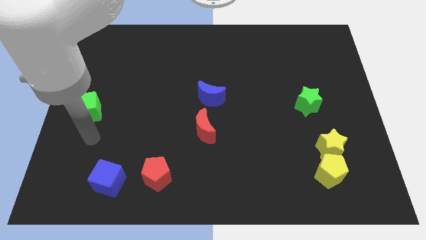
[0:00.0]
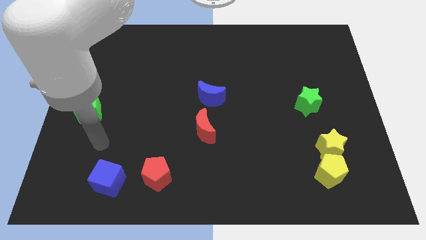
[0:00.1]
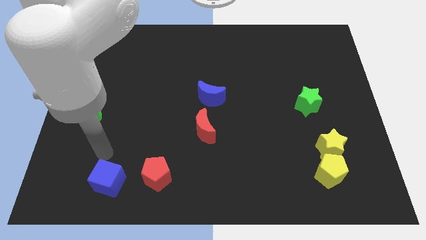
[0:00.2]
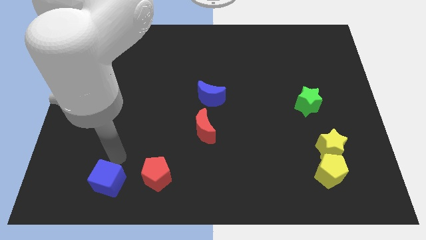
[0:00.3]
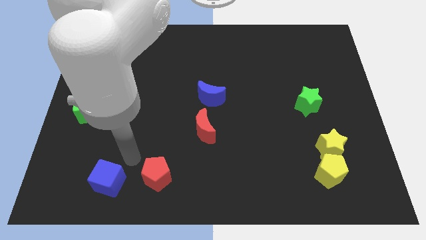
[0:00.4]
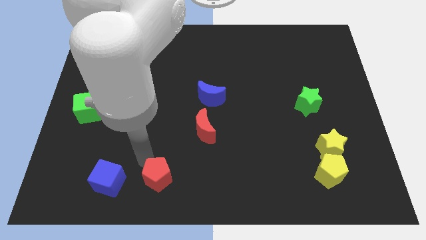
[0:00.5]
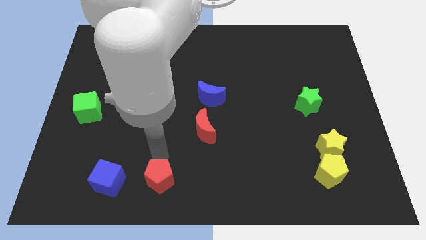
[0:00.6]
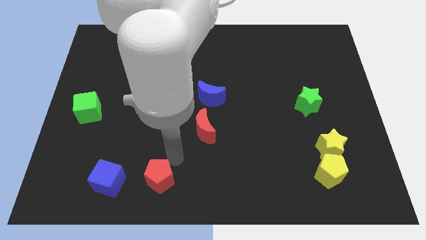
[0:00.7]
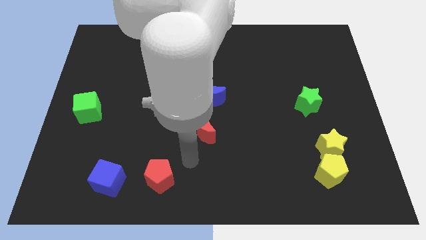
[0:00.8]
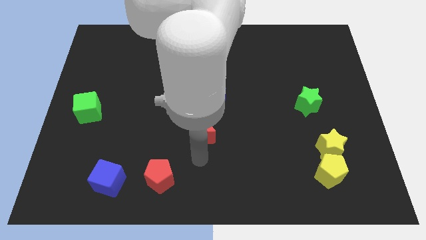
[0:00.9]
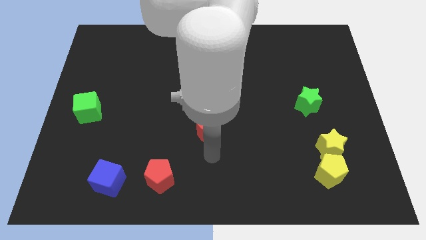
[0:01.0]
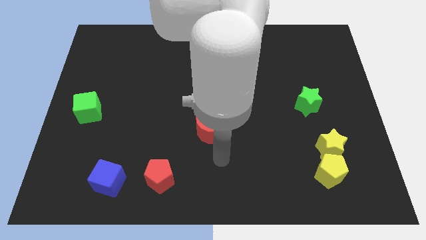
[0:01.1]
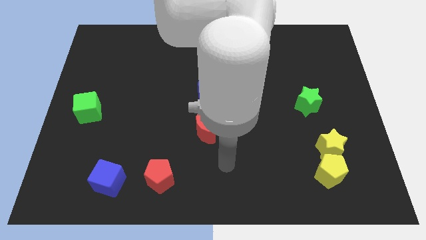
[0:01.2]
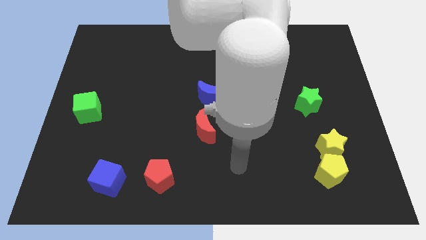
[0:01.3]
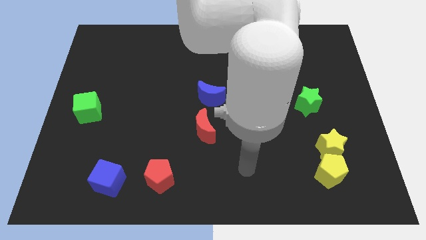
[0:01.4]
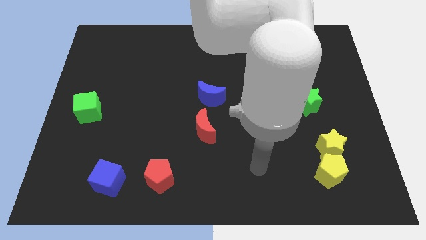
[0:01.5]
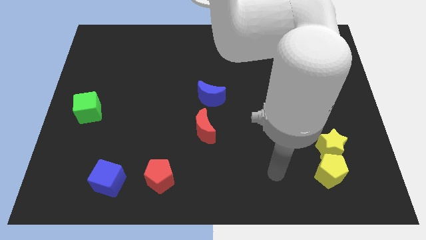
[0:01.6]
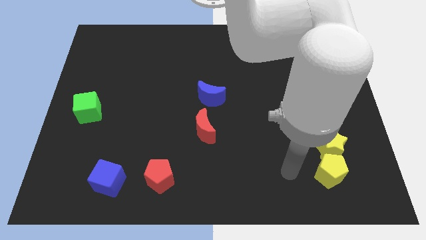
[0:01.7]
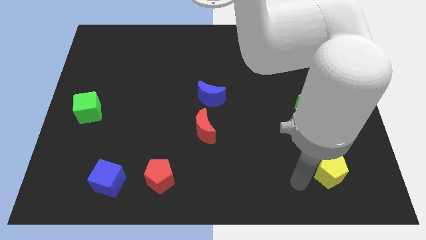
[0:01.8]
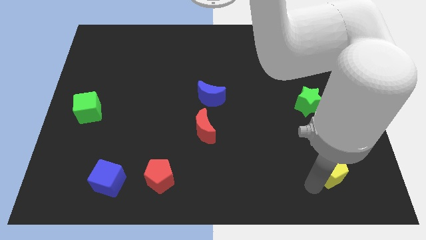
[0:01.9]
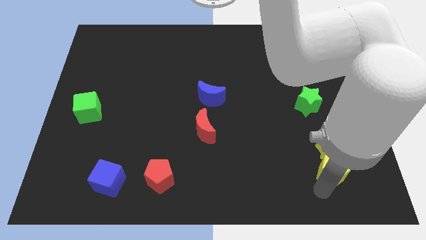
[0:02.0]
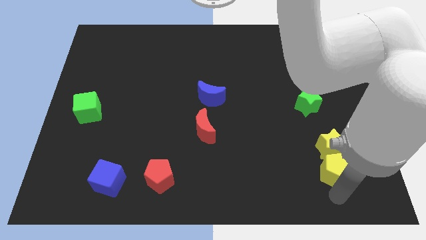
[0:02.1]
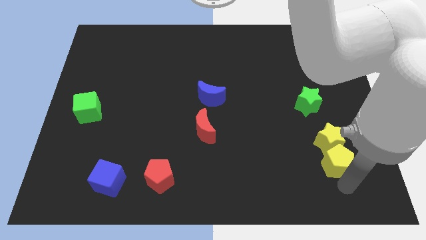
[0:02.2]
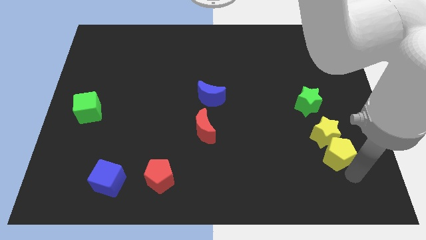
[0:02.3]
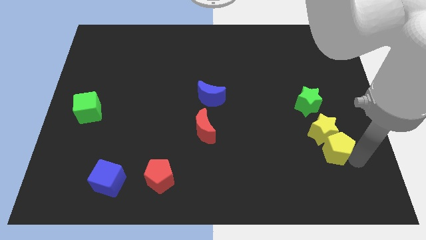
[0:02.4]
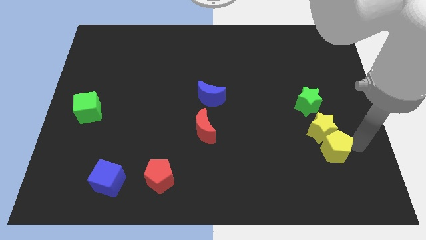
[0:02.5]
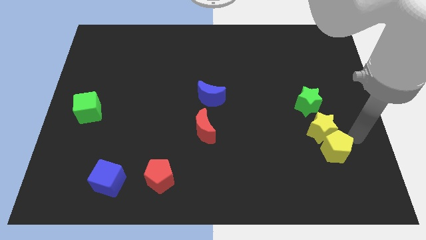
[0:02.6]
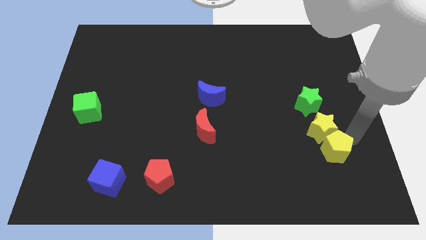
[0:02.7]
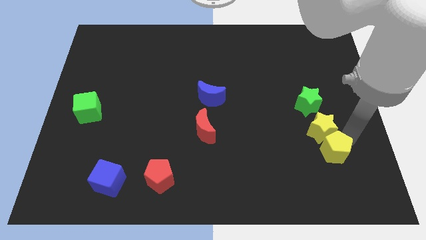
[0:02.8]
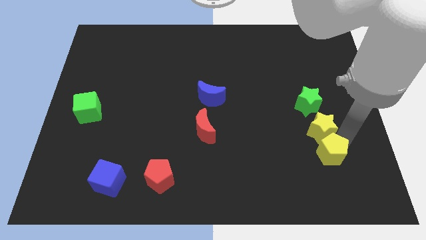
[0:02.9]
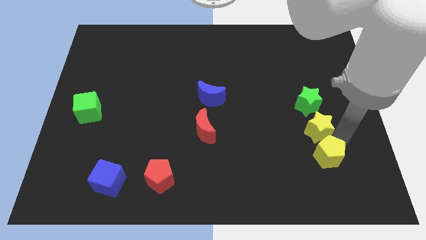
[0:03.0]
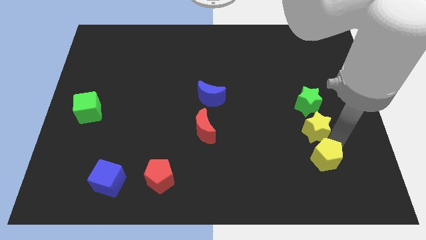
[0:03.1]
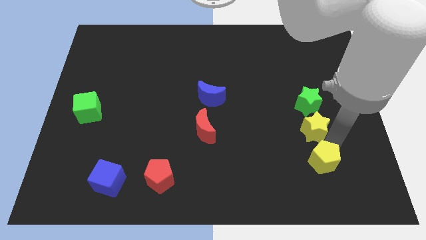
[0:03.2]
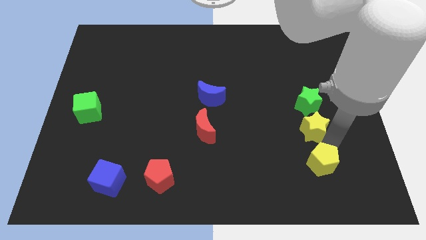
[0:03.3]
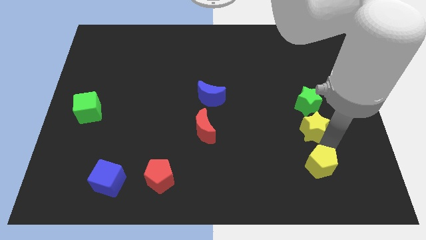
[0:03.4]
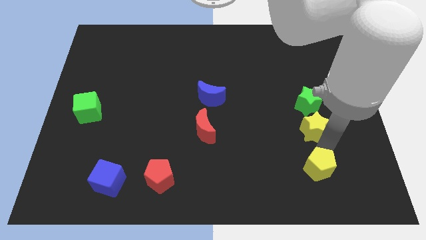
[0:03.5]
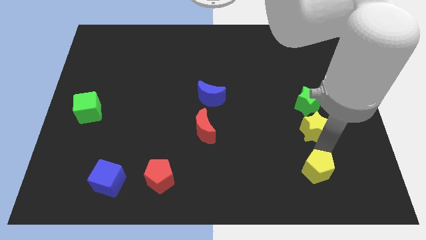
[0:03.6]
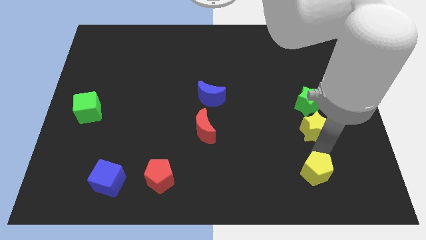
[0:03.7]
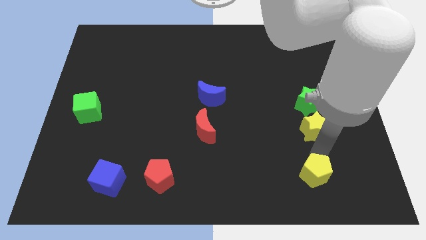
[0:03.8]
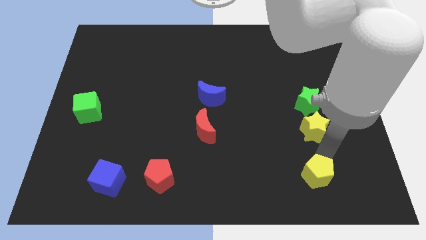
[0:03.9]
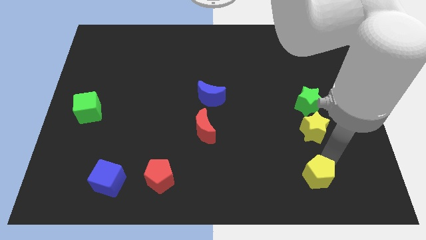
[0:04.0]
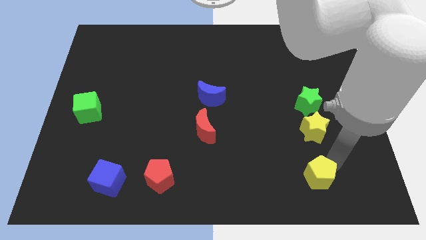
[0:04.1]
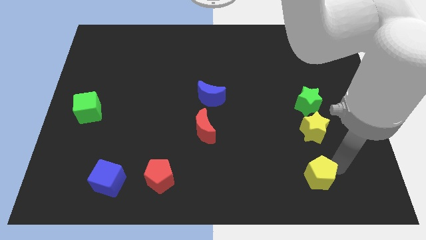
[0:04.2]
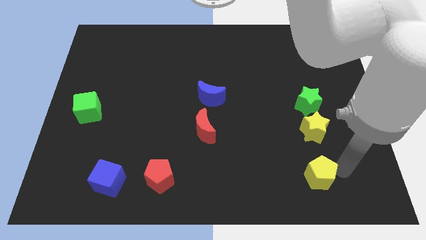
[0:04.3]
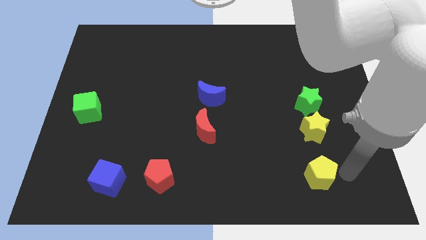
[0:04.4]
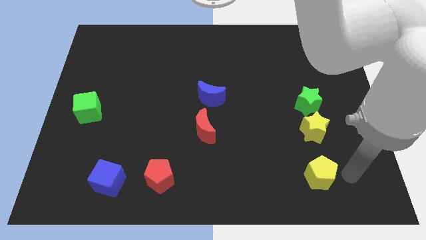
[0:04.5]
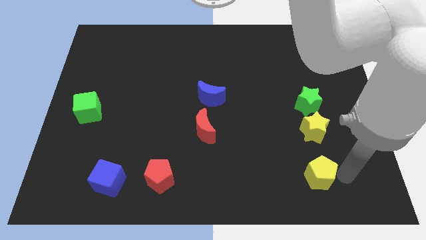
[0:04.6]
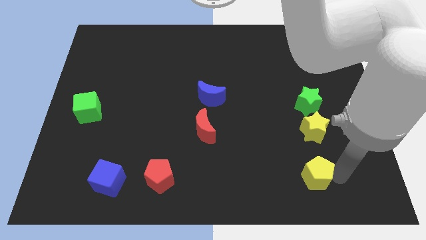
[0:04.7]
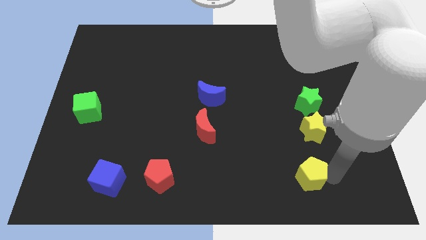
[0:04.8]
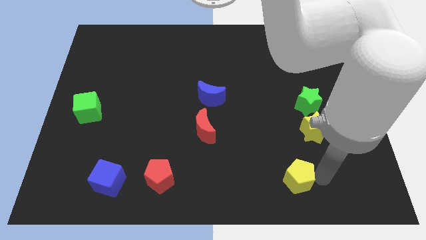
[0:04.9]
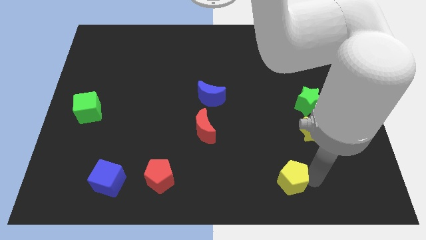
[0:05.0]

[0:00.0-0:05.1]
slightly move the yellow pentagon left

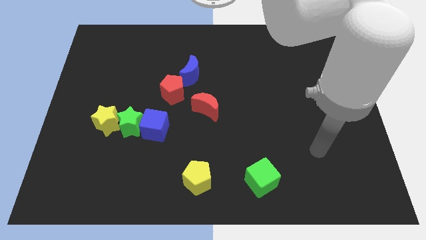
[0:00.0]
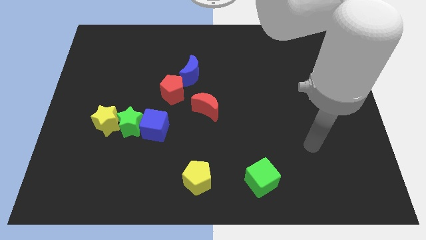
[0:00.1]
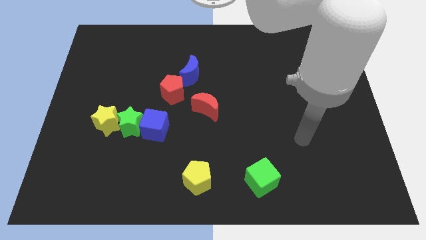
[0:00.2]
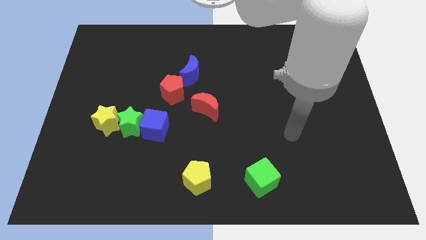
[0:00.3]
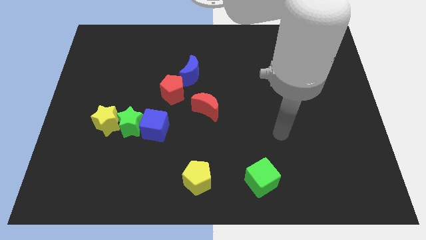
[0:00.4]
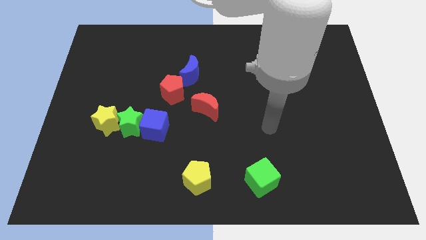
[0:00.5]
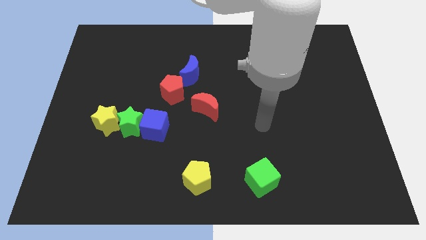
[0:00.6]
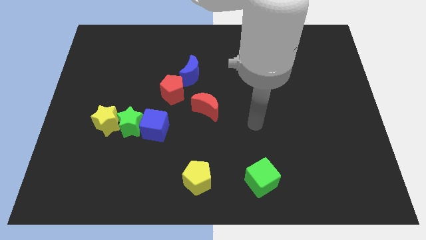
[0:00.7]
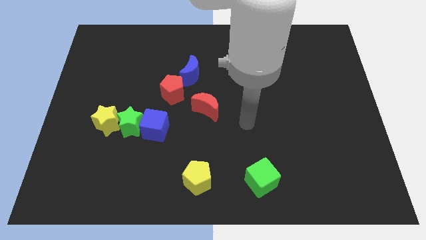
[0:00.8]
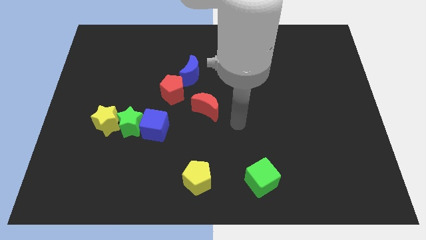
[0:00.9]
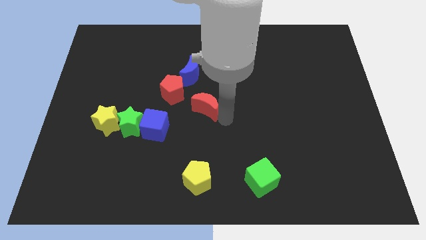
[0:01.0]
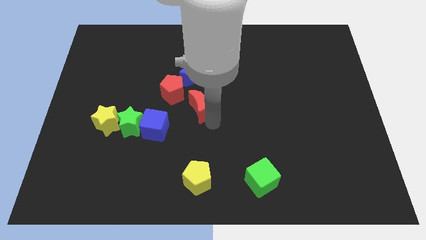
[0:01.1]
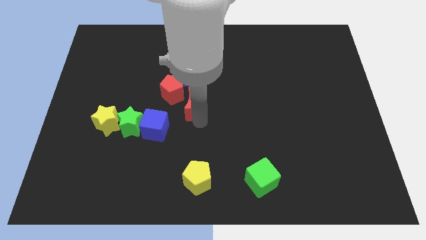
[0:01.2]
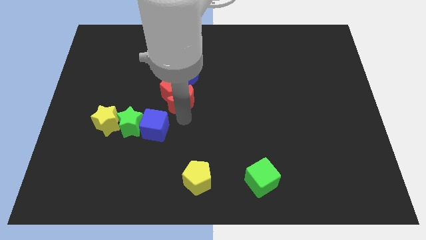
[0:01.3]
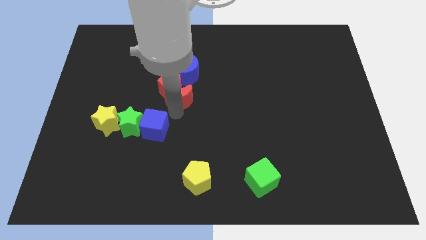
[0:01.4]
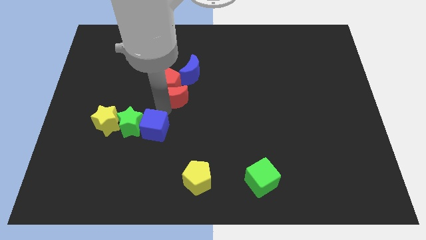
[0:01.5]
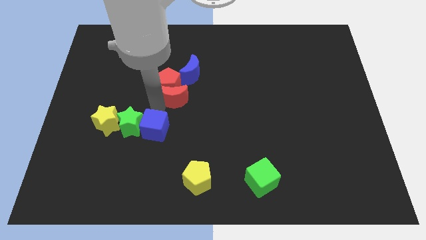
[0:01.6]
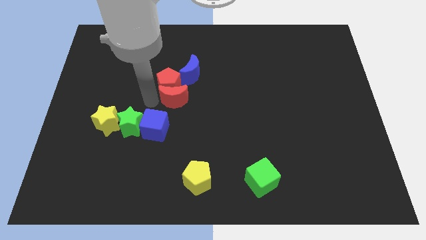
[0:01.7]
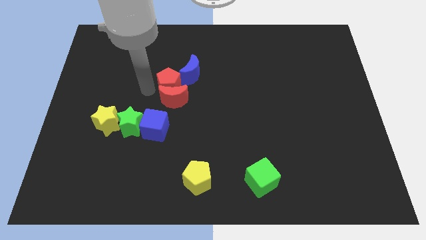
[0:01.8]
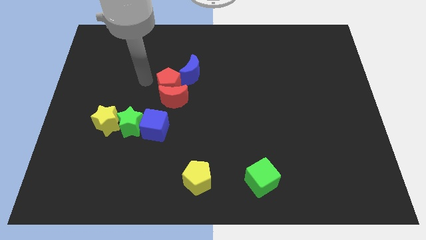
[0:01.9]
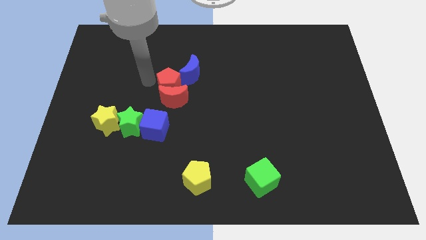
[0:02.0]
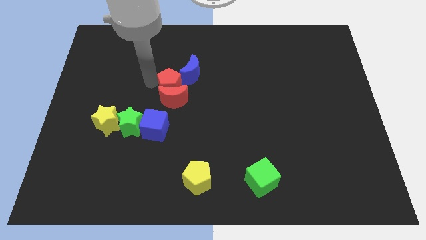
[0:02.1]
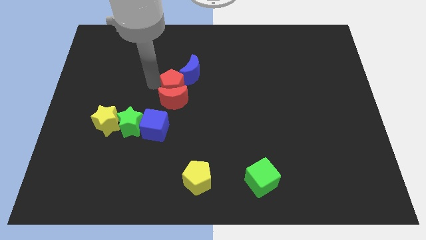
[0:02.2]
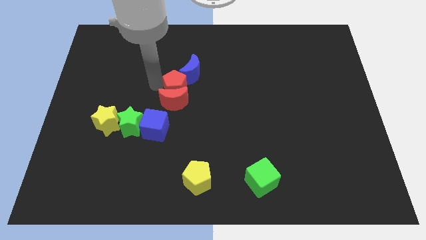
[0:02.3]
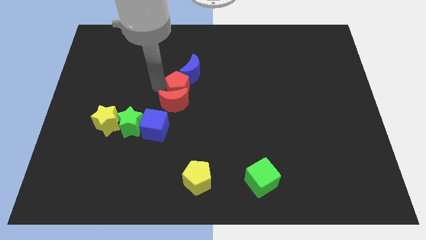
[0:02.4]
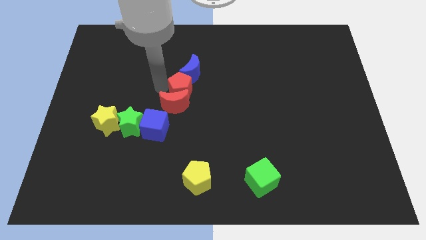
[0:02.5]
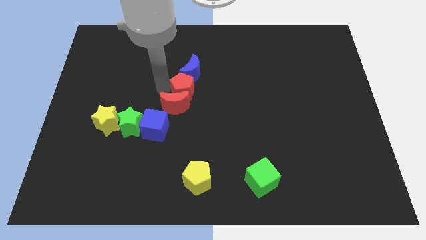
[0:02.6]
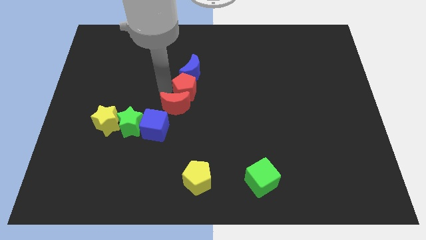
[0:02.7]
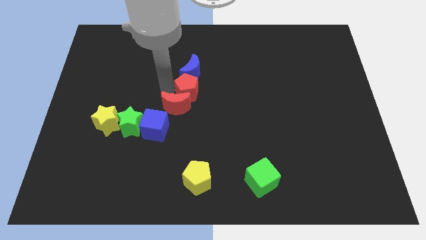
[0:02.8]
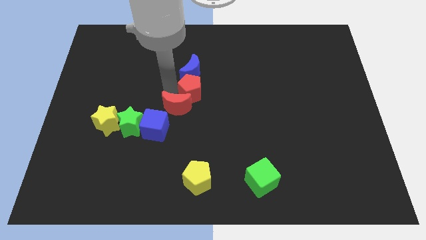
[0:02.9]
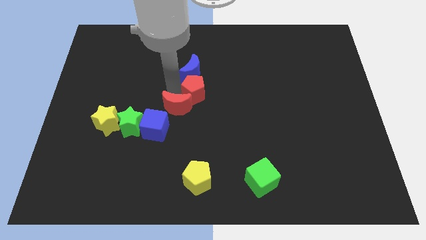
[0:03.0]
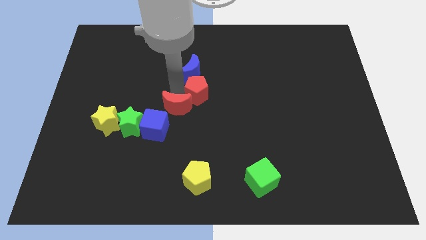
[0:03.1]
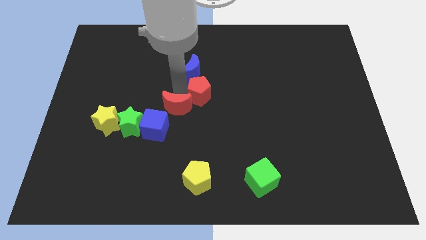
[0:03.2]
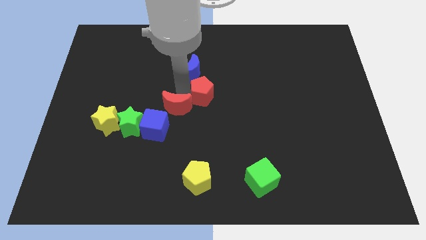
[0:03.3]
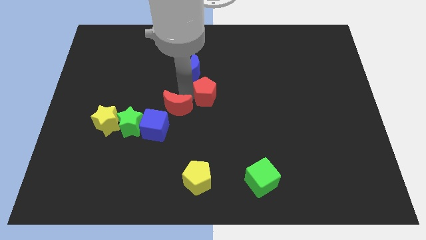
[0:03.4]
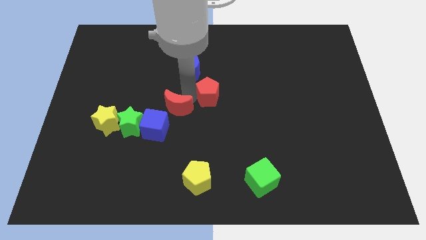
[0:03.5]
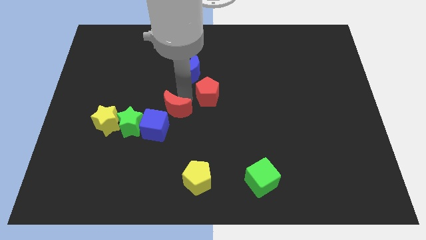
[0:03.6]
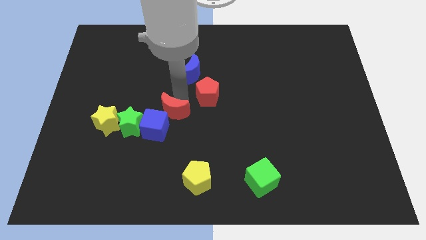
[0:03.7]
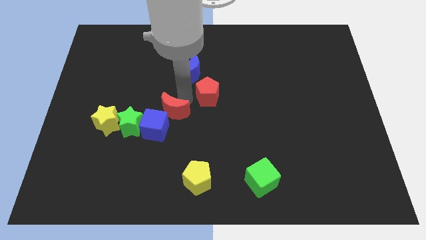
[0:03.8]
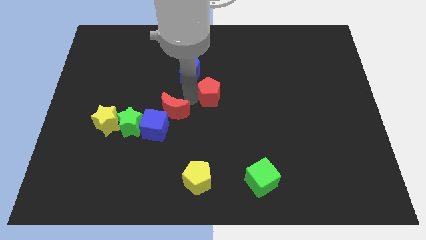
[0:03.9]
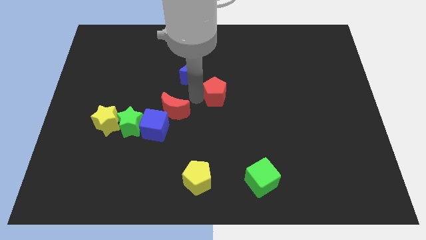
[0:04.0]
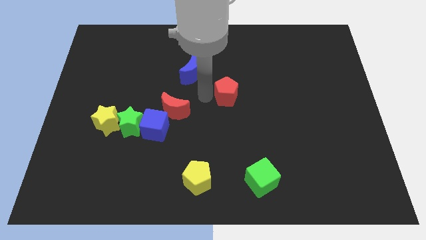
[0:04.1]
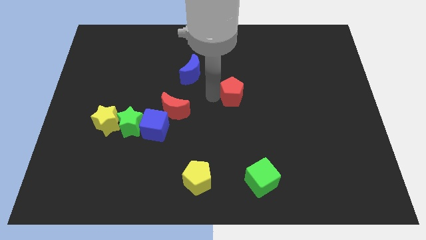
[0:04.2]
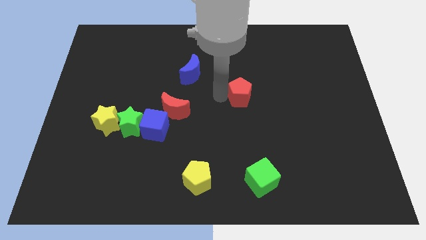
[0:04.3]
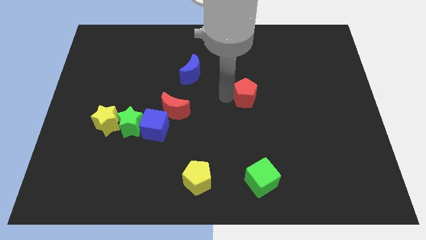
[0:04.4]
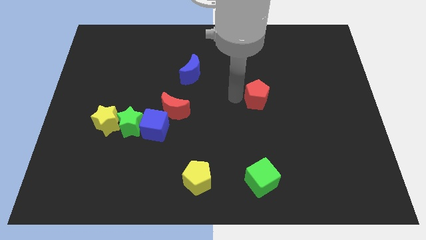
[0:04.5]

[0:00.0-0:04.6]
move the red pentagon right
